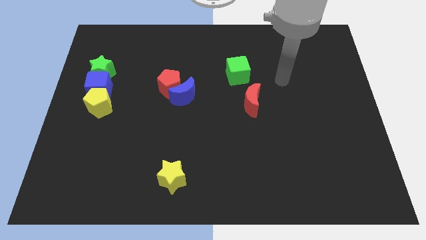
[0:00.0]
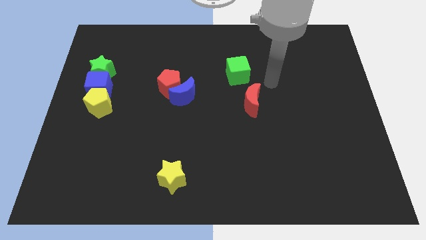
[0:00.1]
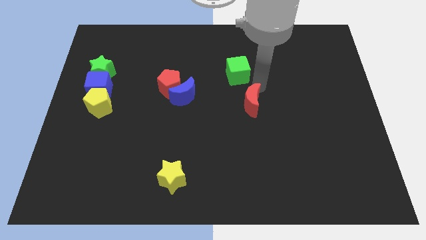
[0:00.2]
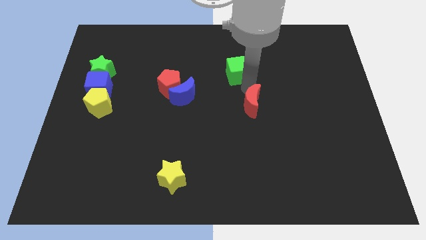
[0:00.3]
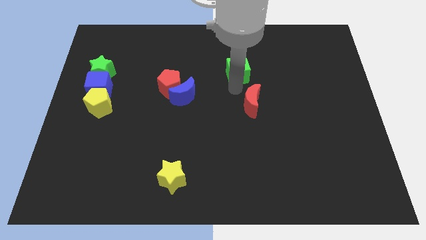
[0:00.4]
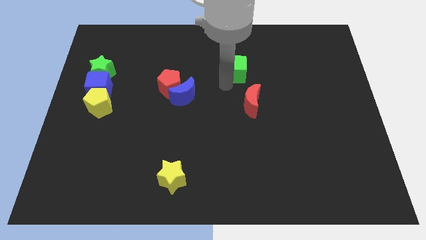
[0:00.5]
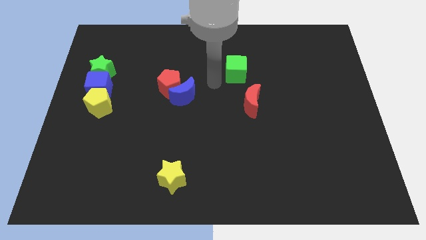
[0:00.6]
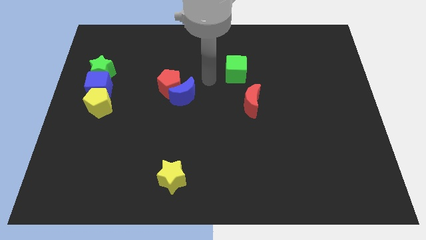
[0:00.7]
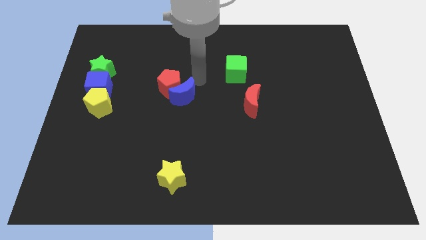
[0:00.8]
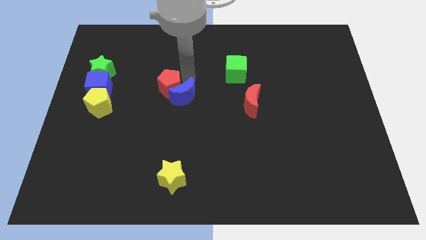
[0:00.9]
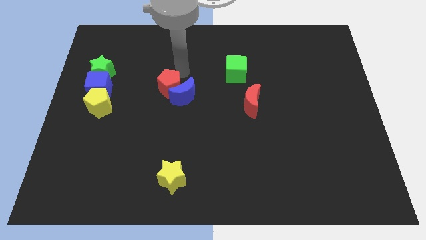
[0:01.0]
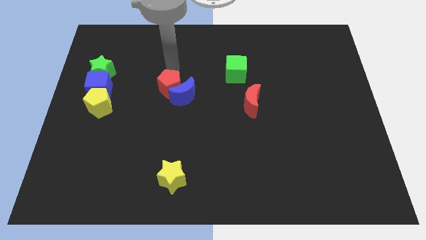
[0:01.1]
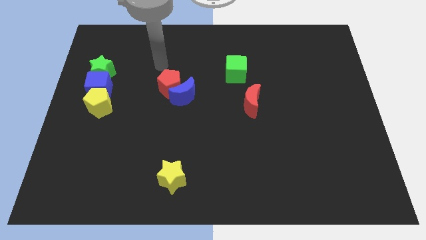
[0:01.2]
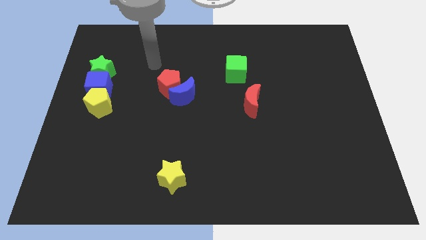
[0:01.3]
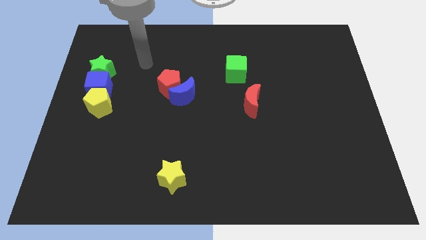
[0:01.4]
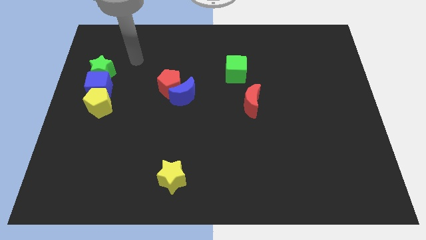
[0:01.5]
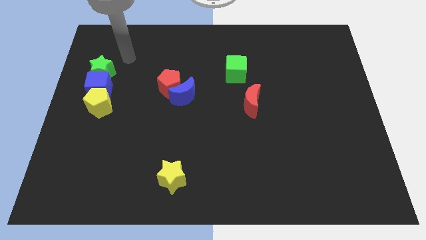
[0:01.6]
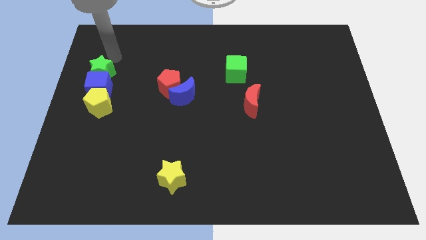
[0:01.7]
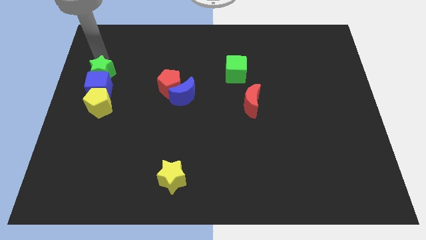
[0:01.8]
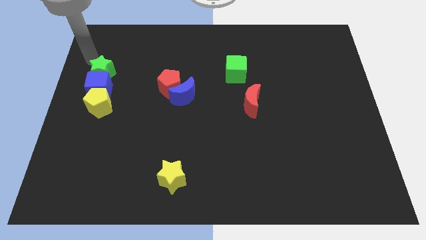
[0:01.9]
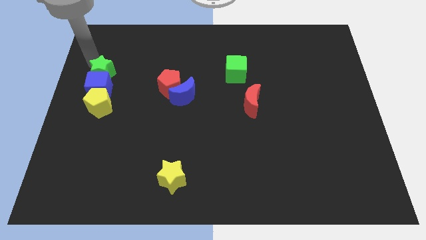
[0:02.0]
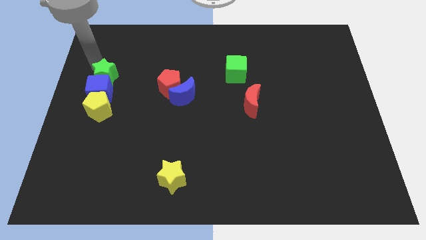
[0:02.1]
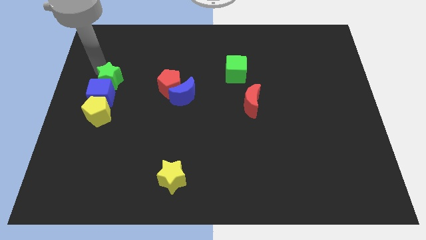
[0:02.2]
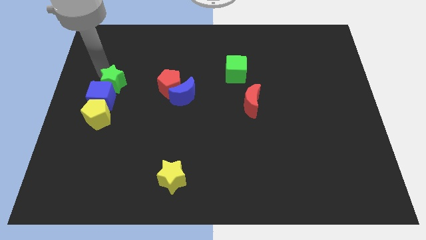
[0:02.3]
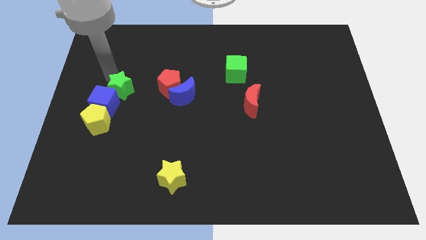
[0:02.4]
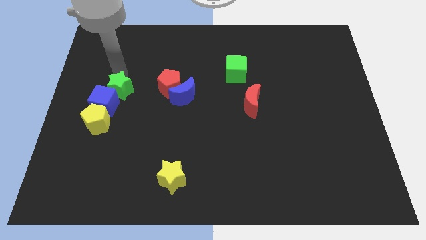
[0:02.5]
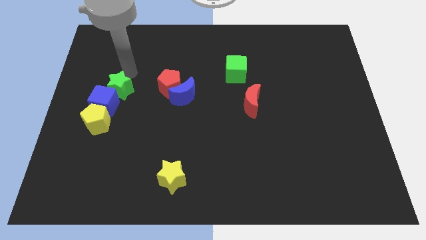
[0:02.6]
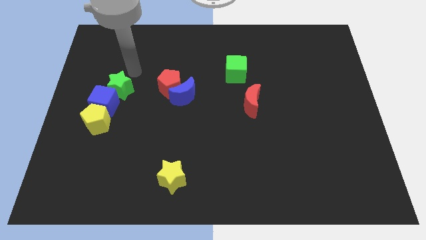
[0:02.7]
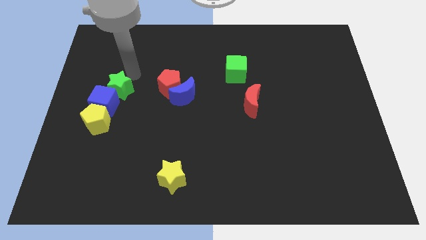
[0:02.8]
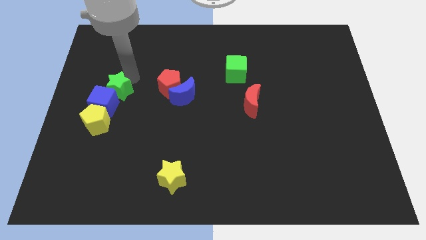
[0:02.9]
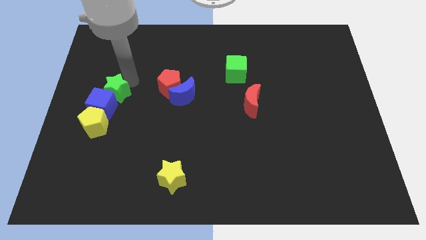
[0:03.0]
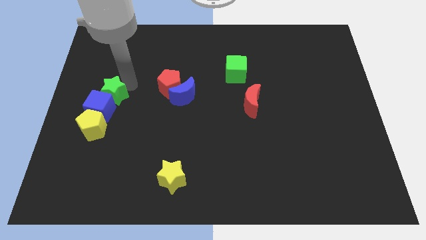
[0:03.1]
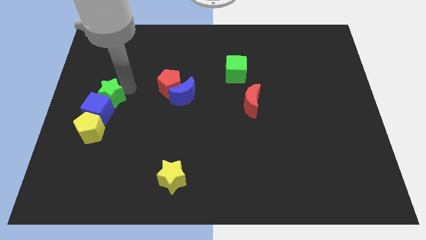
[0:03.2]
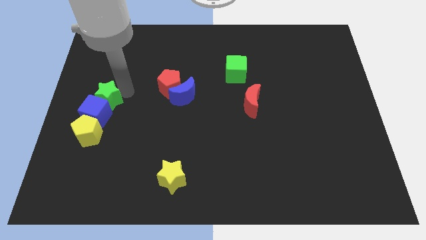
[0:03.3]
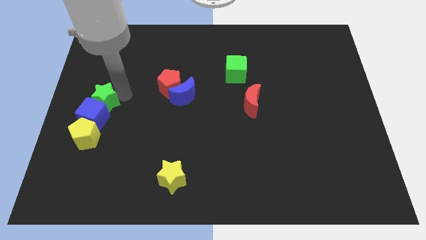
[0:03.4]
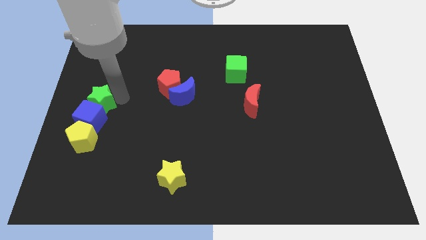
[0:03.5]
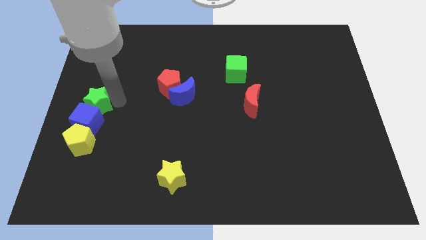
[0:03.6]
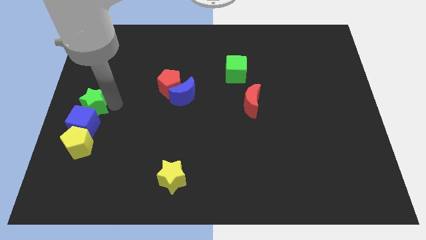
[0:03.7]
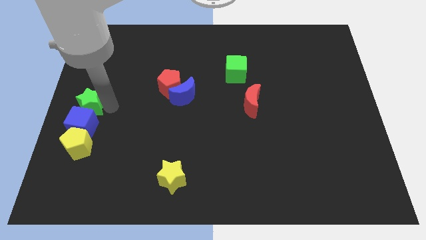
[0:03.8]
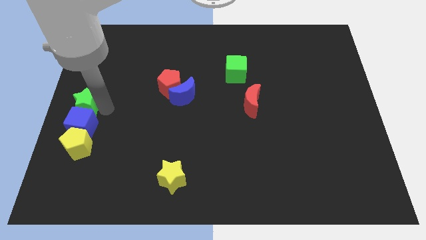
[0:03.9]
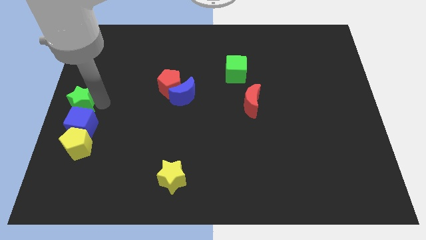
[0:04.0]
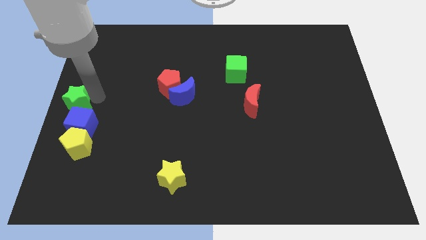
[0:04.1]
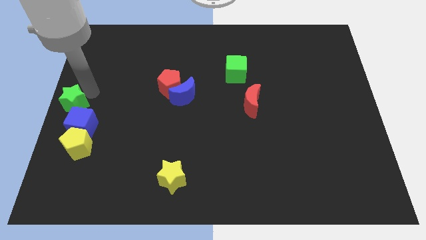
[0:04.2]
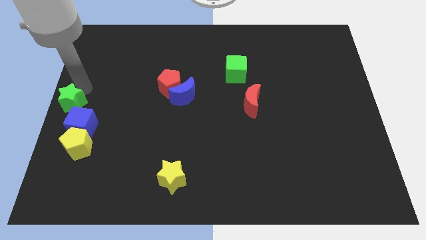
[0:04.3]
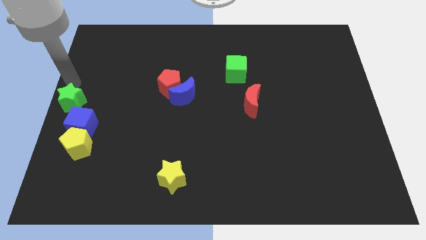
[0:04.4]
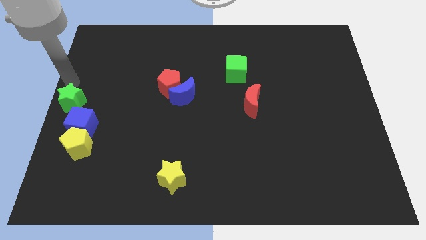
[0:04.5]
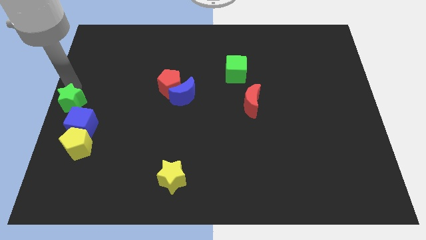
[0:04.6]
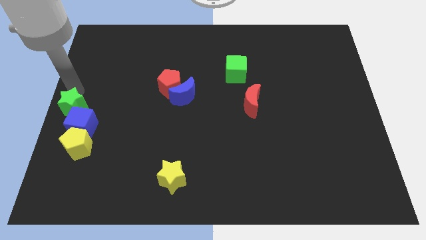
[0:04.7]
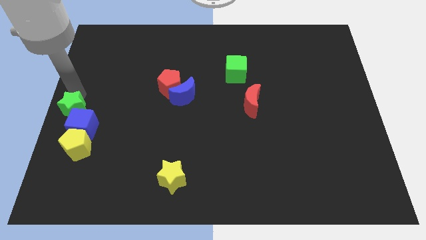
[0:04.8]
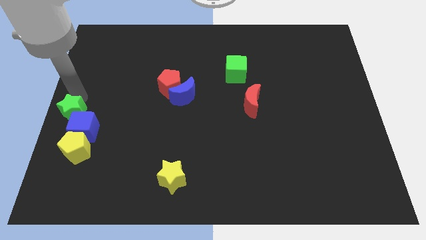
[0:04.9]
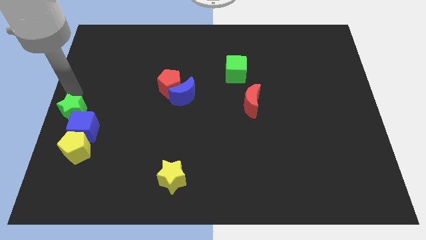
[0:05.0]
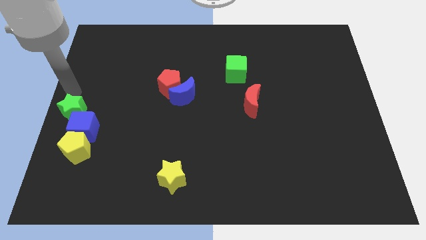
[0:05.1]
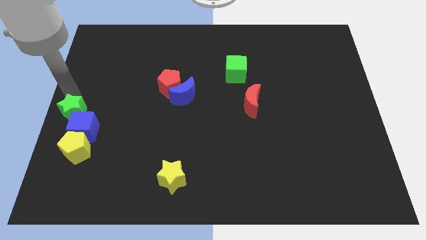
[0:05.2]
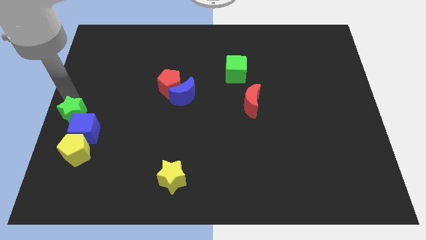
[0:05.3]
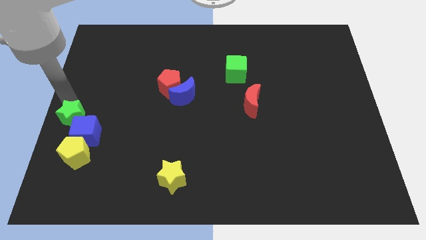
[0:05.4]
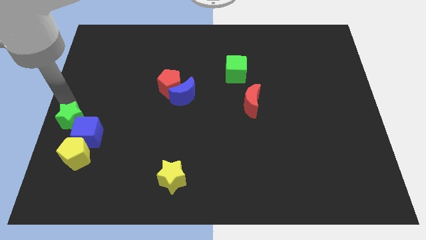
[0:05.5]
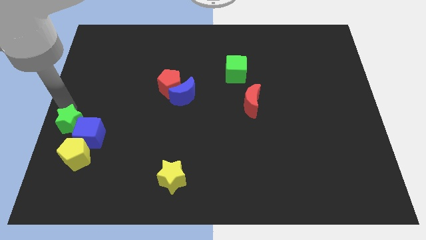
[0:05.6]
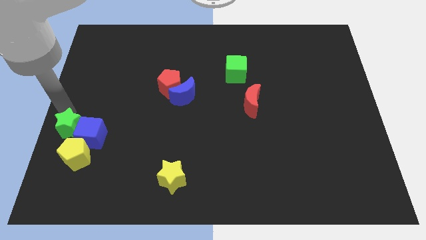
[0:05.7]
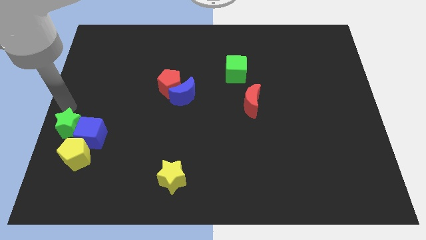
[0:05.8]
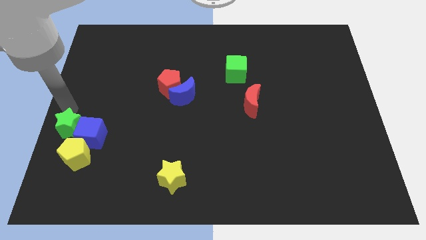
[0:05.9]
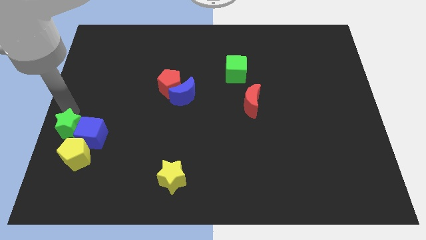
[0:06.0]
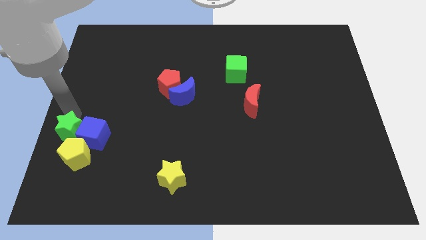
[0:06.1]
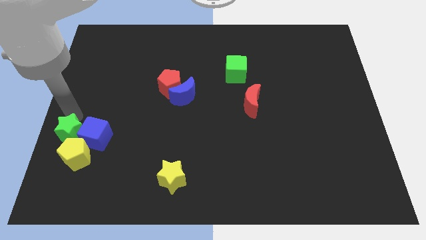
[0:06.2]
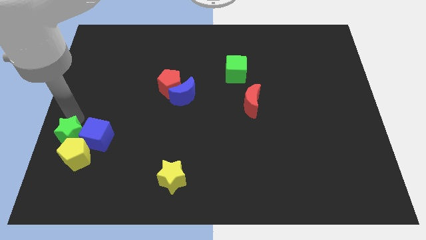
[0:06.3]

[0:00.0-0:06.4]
move the green star close to the yellow pentagon
